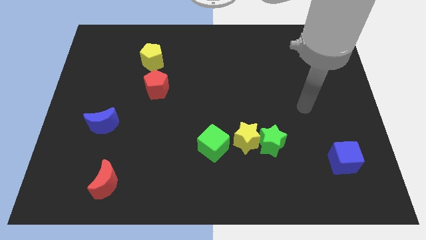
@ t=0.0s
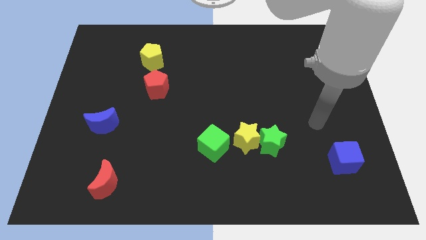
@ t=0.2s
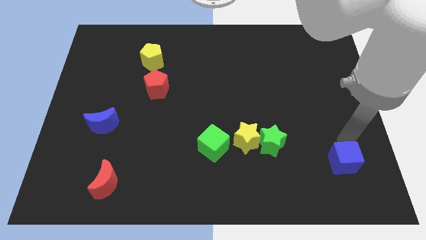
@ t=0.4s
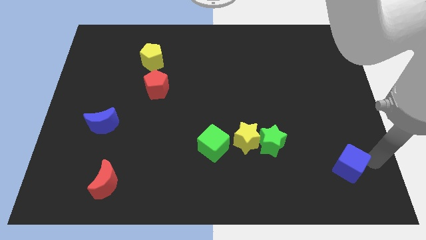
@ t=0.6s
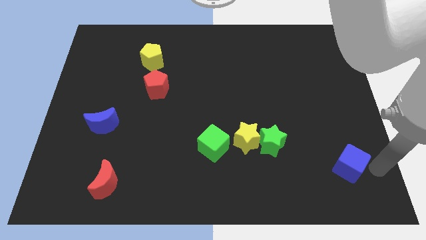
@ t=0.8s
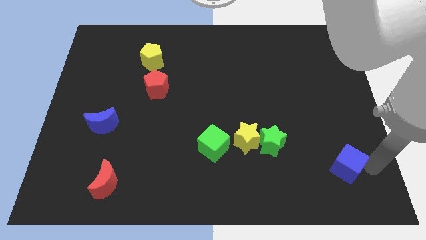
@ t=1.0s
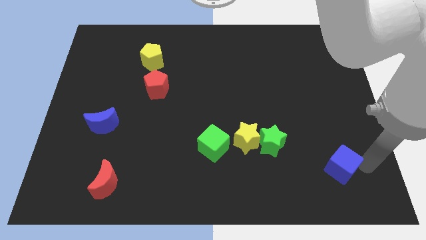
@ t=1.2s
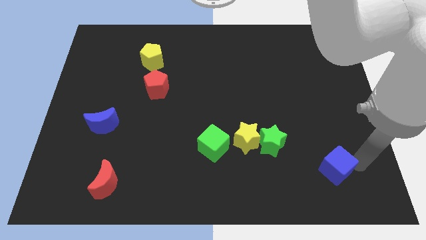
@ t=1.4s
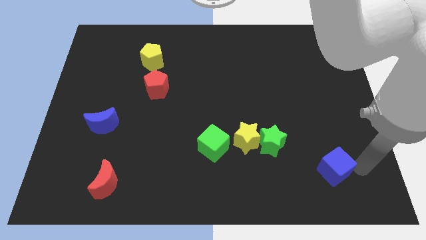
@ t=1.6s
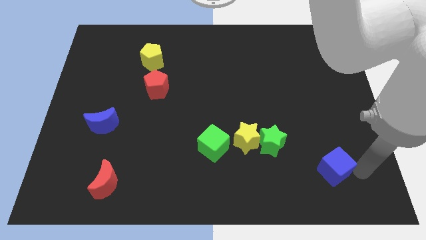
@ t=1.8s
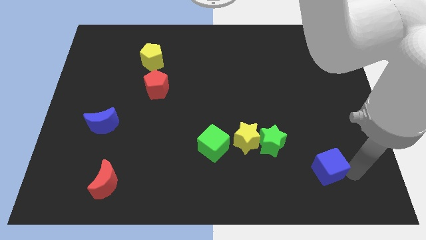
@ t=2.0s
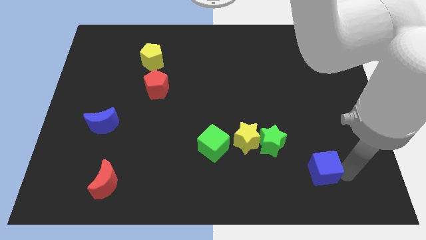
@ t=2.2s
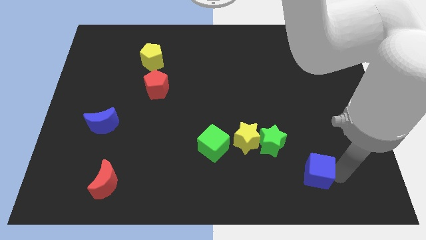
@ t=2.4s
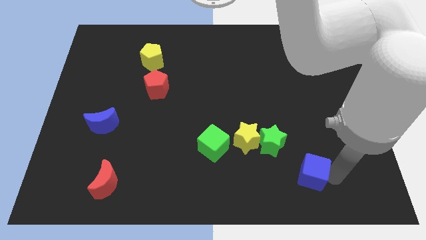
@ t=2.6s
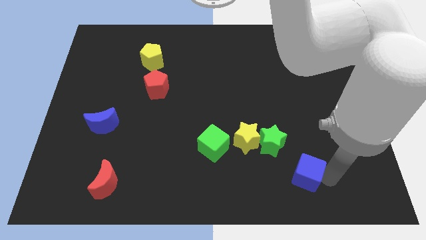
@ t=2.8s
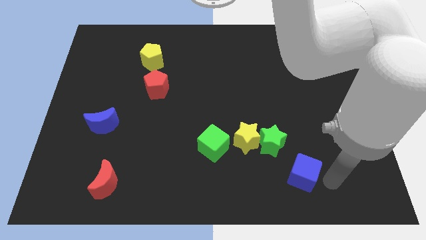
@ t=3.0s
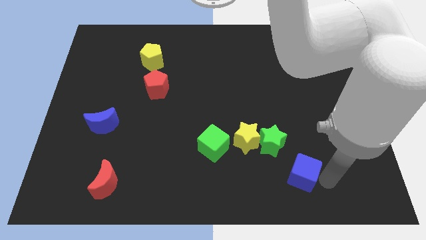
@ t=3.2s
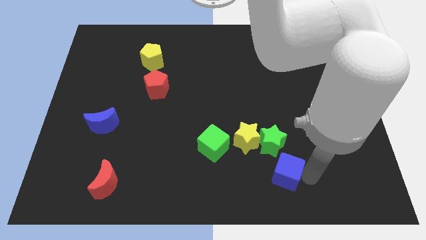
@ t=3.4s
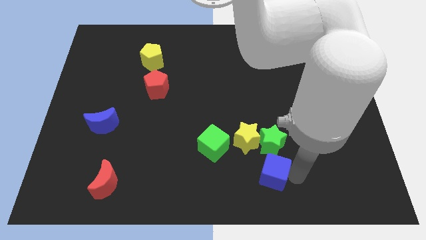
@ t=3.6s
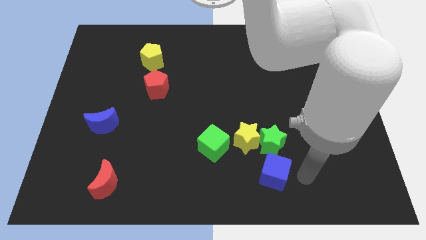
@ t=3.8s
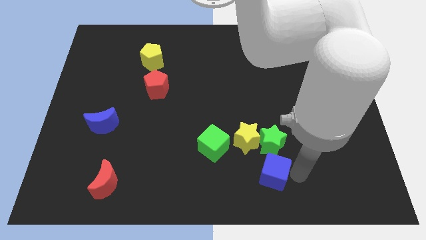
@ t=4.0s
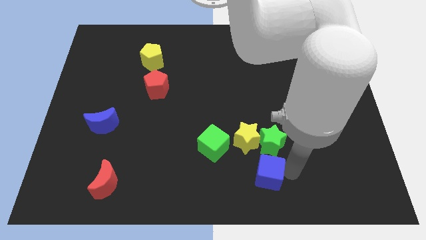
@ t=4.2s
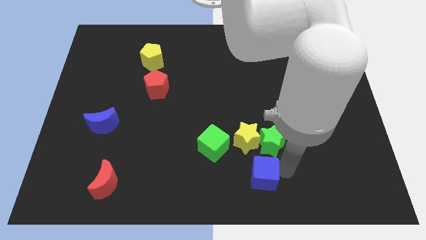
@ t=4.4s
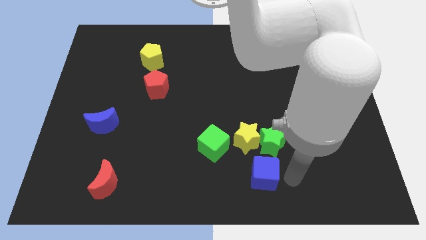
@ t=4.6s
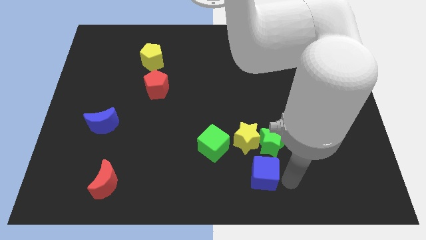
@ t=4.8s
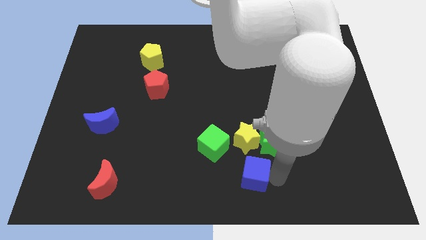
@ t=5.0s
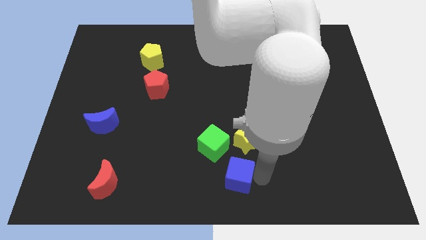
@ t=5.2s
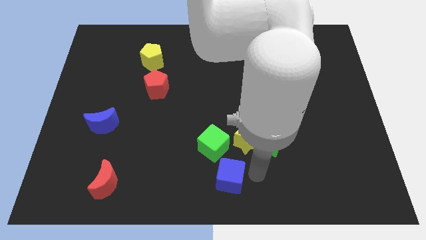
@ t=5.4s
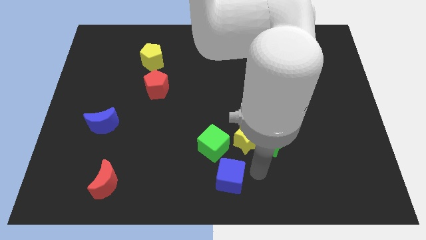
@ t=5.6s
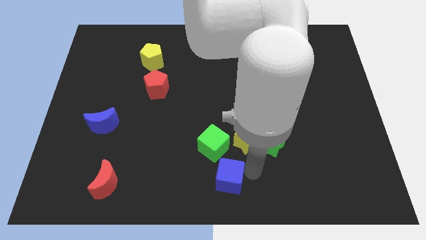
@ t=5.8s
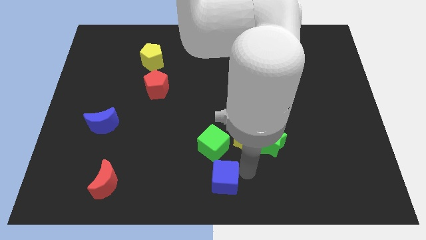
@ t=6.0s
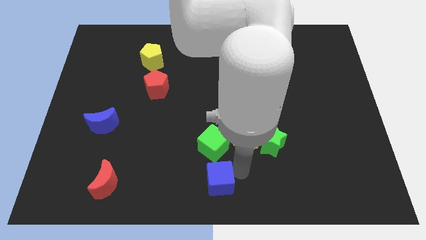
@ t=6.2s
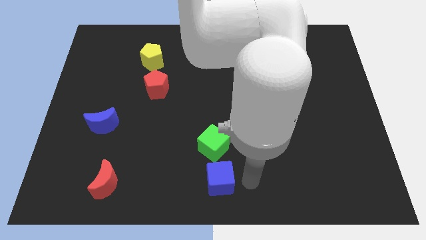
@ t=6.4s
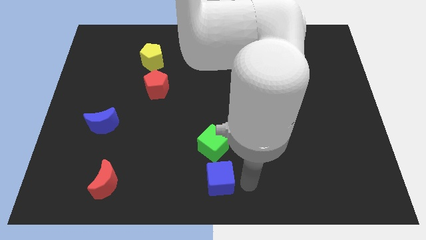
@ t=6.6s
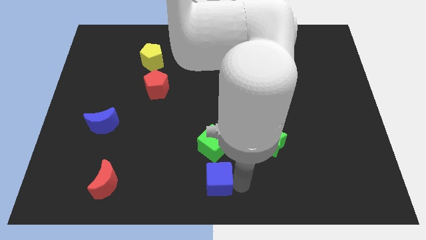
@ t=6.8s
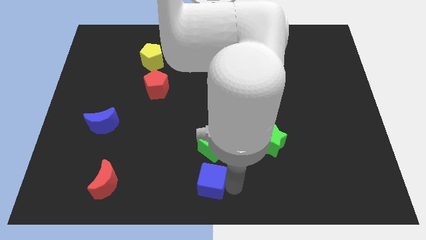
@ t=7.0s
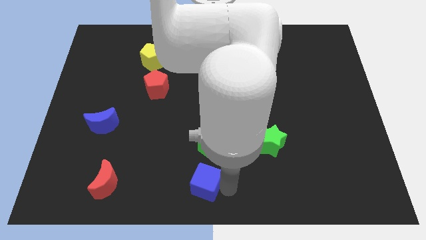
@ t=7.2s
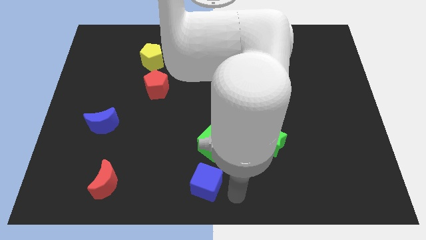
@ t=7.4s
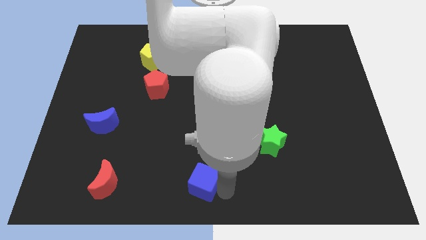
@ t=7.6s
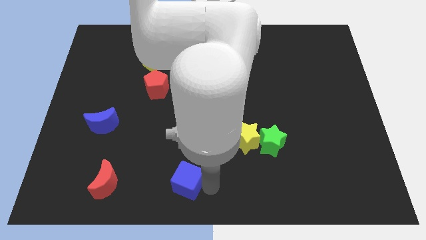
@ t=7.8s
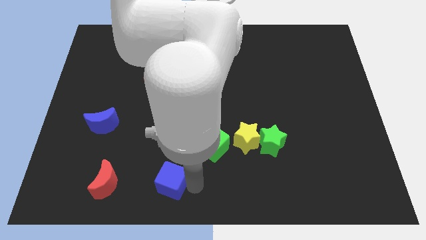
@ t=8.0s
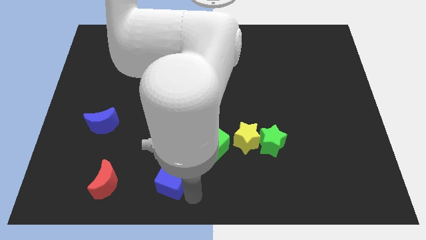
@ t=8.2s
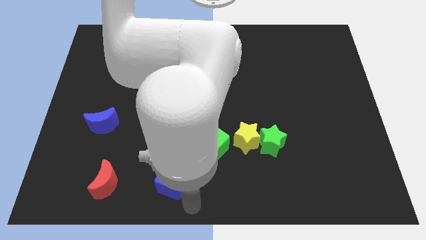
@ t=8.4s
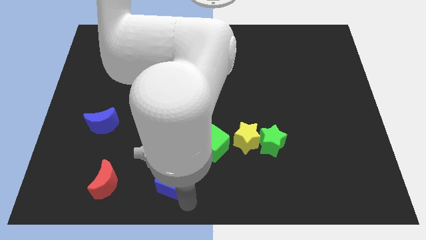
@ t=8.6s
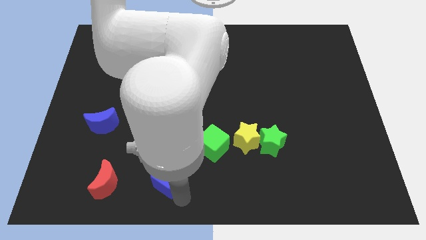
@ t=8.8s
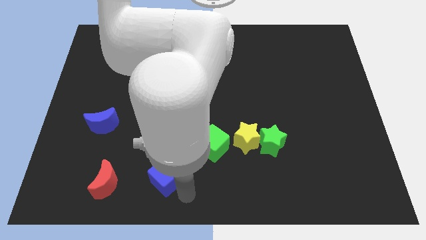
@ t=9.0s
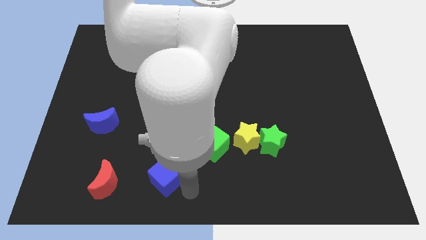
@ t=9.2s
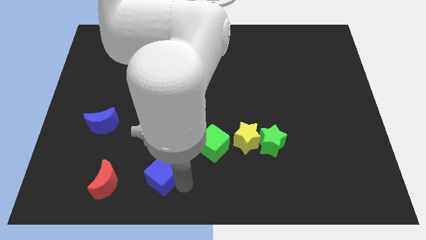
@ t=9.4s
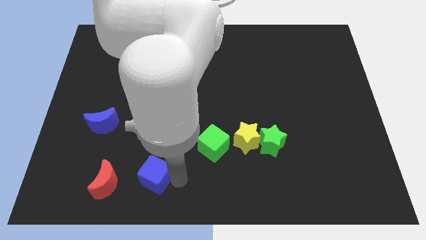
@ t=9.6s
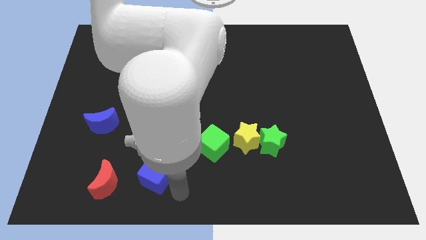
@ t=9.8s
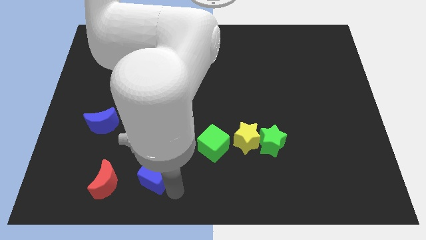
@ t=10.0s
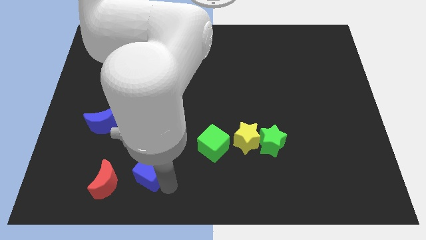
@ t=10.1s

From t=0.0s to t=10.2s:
move the blue cube to the top right of the red moon

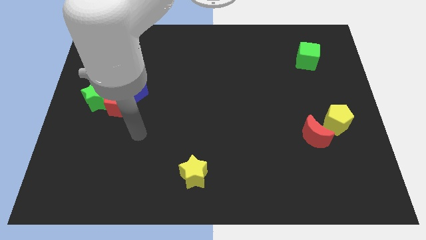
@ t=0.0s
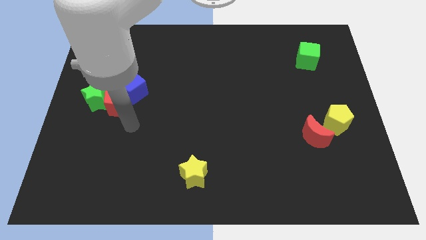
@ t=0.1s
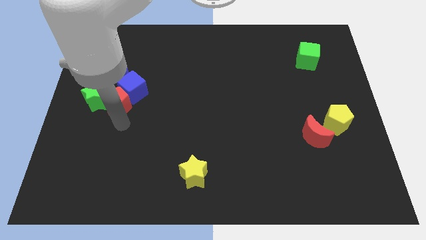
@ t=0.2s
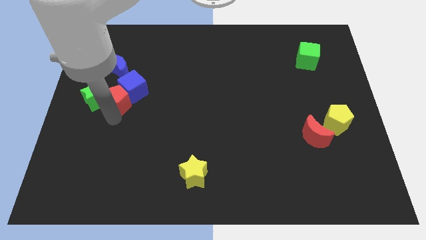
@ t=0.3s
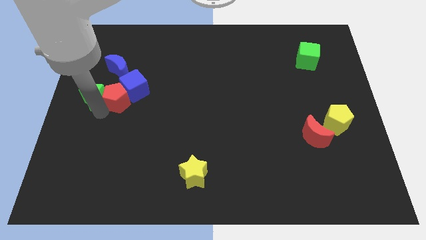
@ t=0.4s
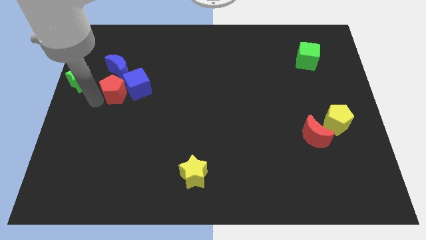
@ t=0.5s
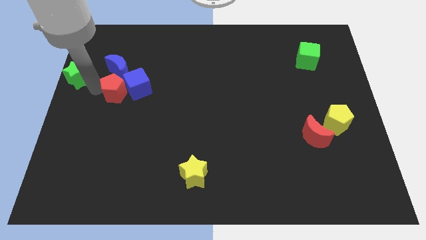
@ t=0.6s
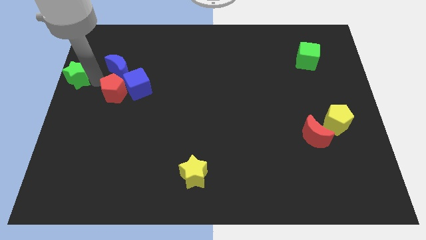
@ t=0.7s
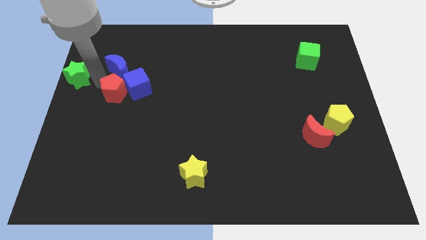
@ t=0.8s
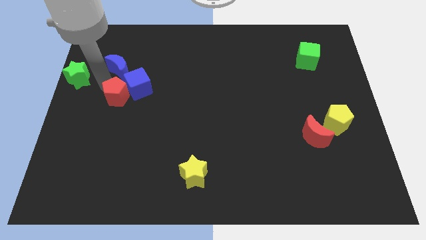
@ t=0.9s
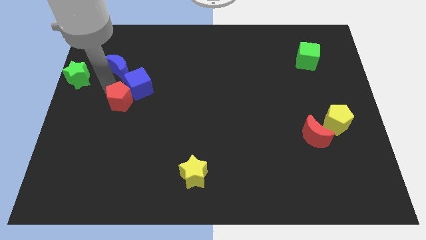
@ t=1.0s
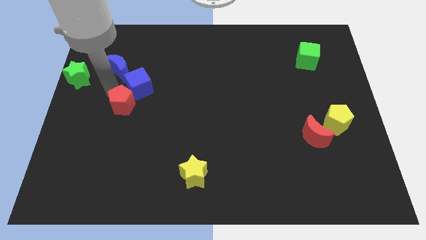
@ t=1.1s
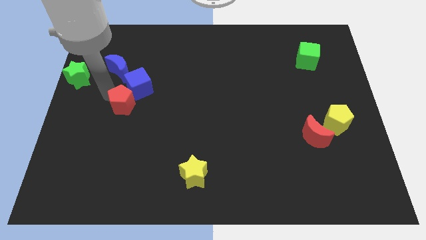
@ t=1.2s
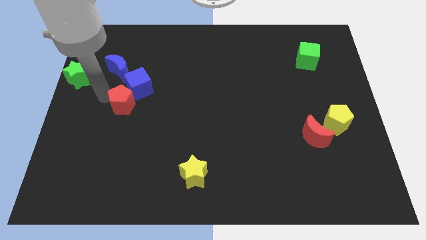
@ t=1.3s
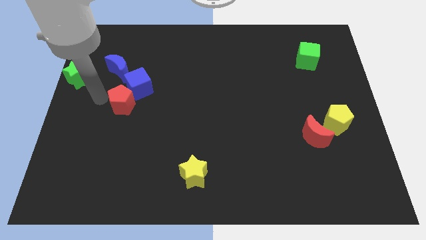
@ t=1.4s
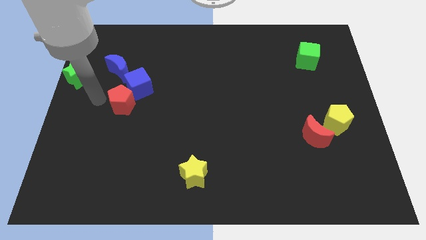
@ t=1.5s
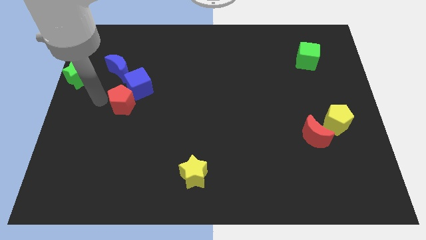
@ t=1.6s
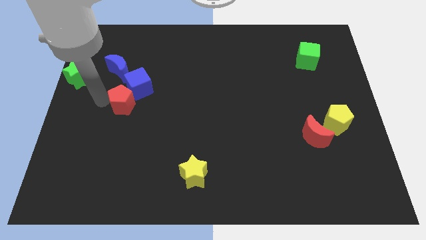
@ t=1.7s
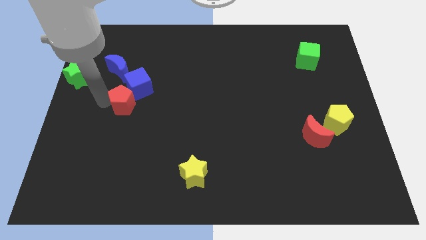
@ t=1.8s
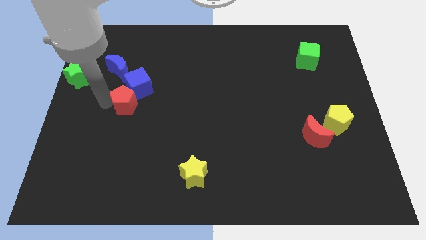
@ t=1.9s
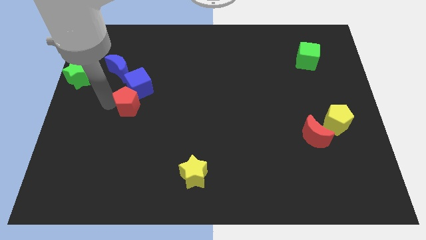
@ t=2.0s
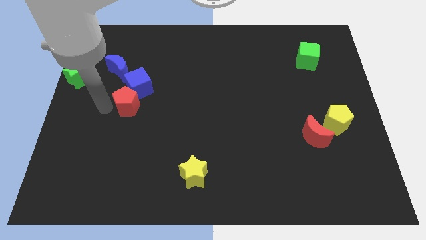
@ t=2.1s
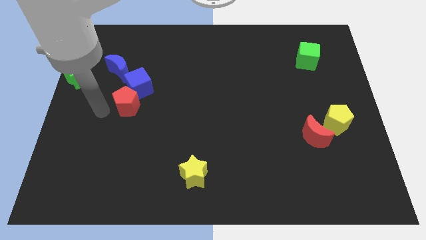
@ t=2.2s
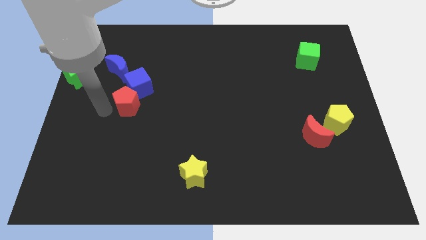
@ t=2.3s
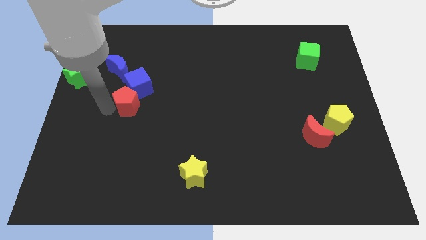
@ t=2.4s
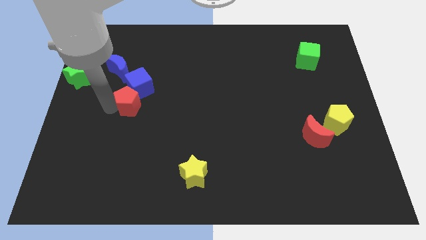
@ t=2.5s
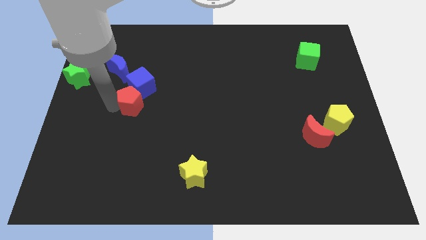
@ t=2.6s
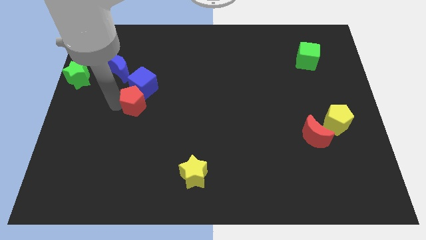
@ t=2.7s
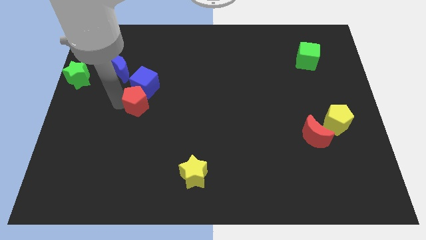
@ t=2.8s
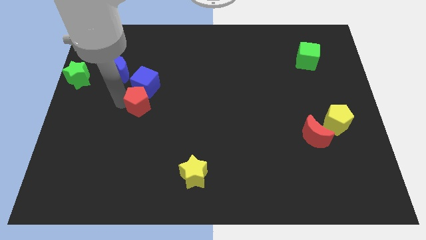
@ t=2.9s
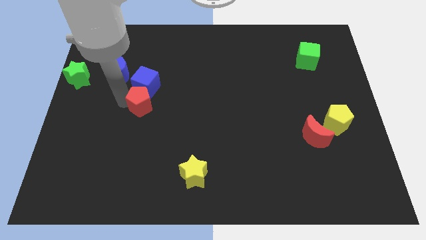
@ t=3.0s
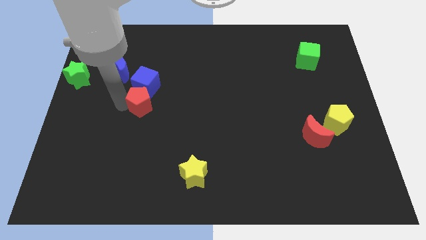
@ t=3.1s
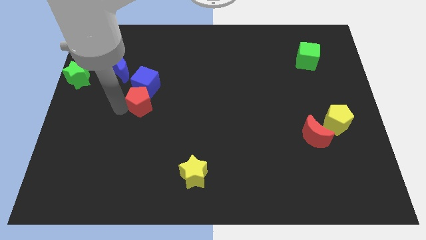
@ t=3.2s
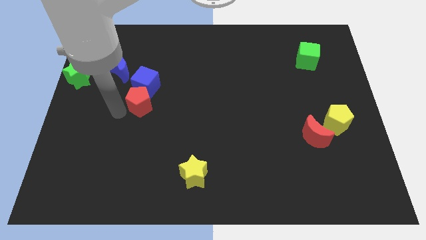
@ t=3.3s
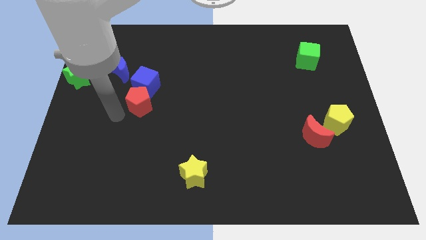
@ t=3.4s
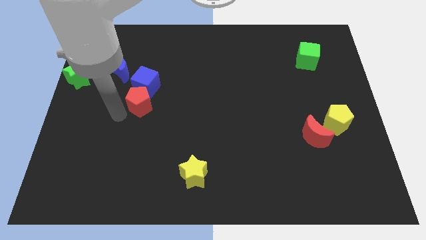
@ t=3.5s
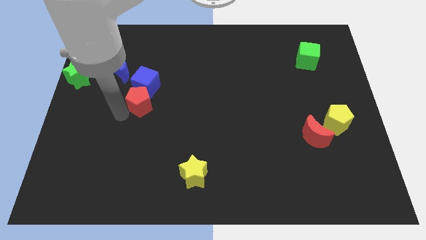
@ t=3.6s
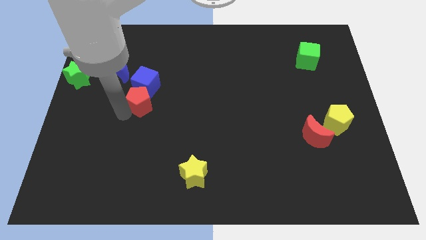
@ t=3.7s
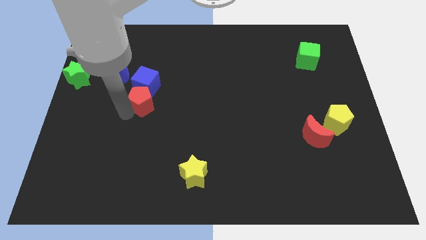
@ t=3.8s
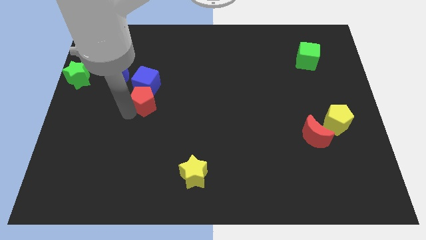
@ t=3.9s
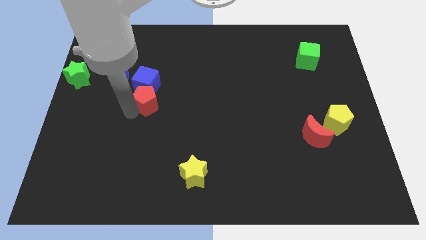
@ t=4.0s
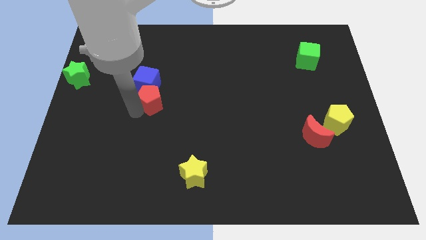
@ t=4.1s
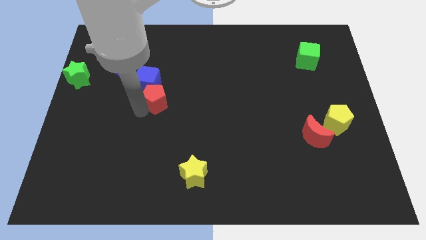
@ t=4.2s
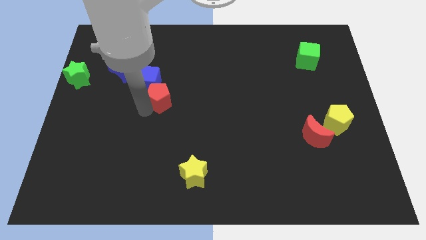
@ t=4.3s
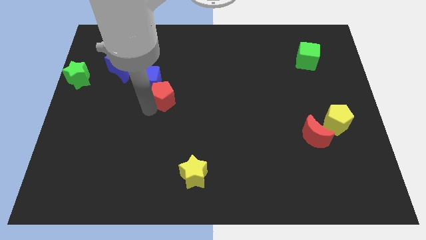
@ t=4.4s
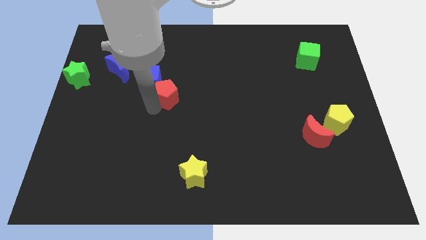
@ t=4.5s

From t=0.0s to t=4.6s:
slide the red pentagon just right of the blue cube
